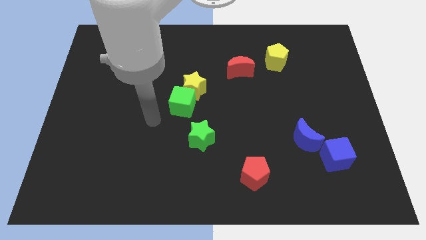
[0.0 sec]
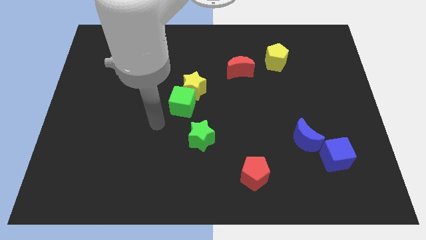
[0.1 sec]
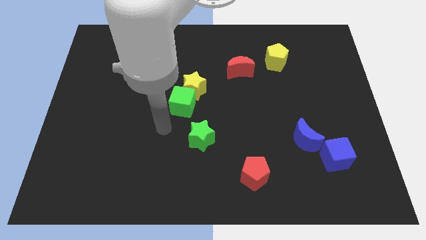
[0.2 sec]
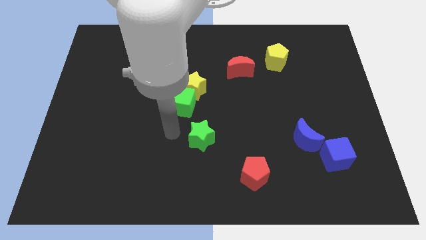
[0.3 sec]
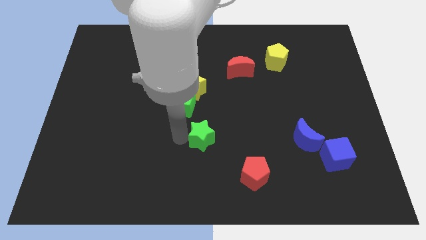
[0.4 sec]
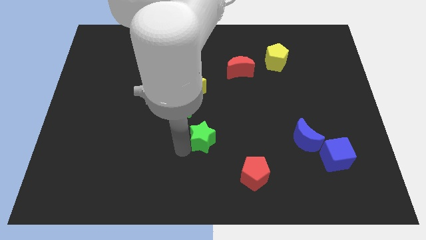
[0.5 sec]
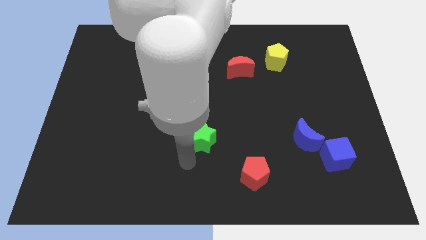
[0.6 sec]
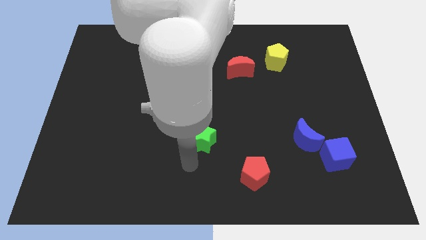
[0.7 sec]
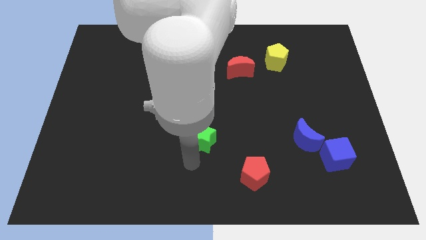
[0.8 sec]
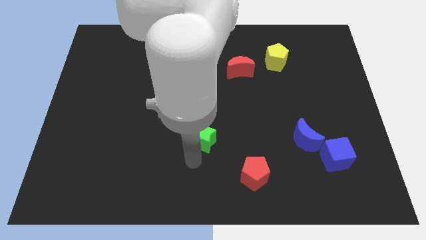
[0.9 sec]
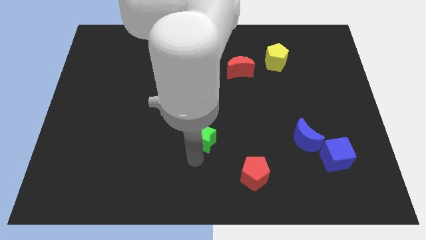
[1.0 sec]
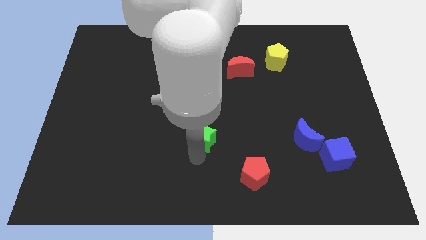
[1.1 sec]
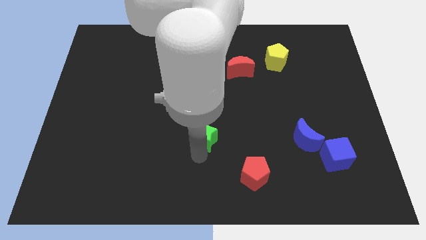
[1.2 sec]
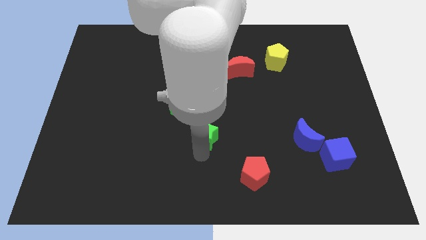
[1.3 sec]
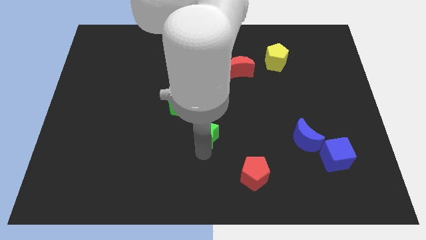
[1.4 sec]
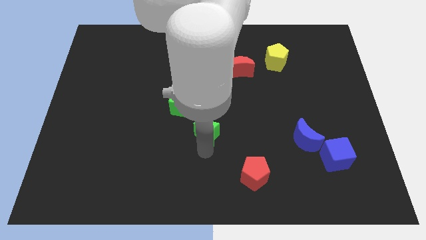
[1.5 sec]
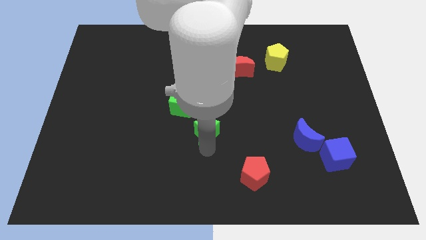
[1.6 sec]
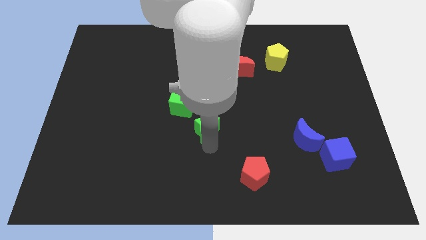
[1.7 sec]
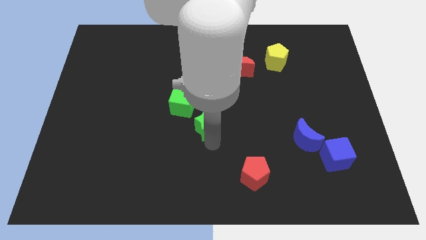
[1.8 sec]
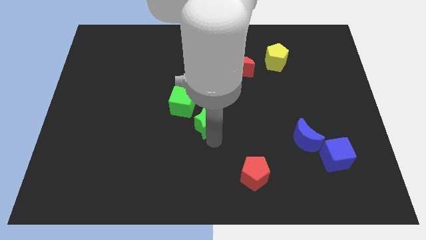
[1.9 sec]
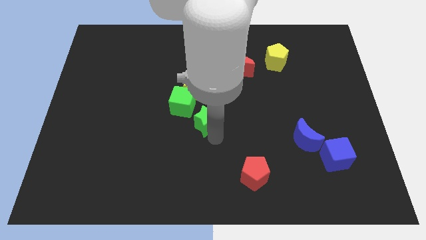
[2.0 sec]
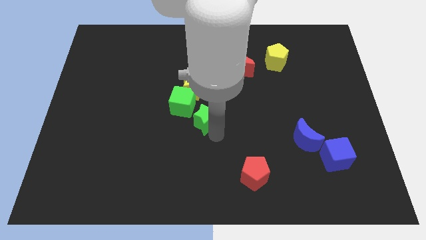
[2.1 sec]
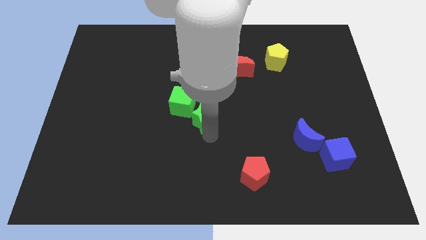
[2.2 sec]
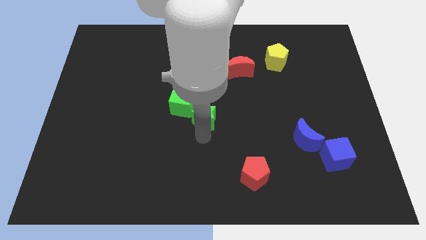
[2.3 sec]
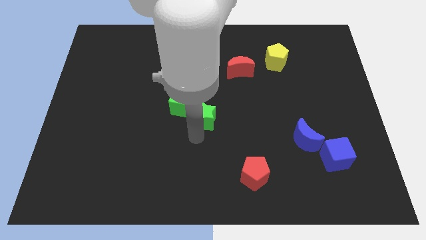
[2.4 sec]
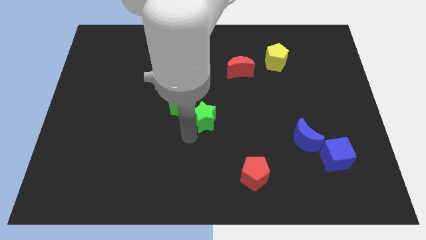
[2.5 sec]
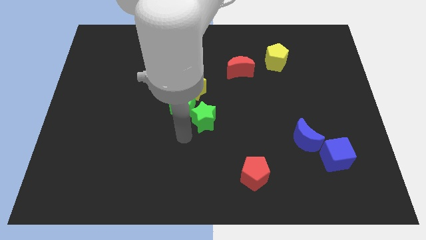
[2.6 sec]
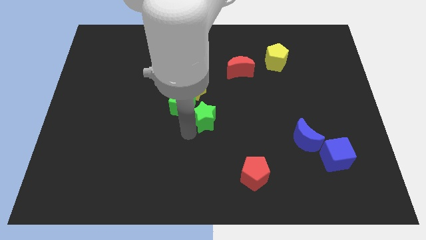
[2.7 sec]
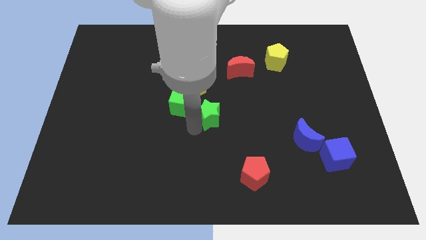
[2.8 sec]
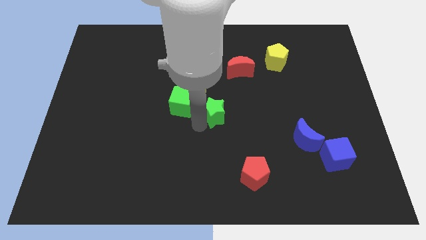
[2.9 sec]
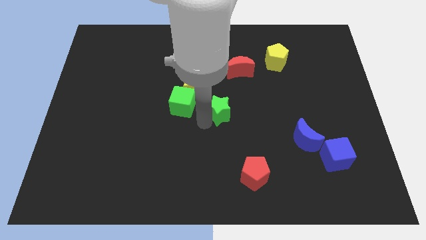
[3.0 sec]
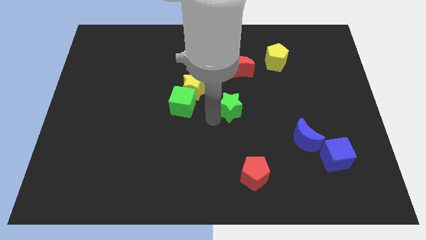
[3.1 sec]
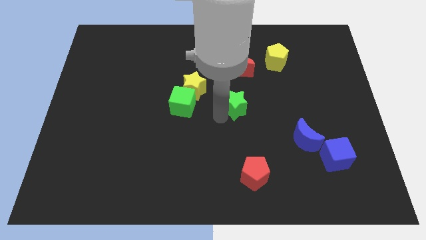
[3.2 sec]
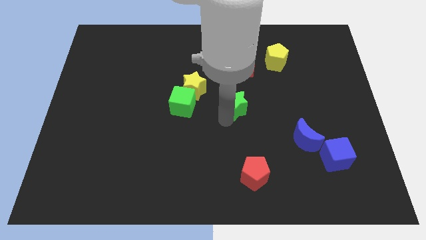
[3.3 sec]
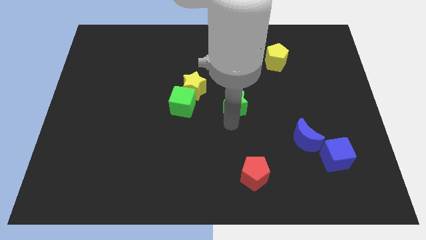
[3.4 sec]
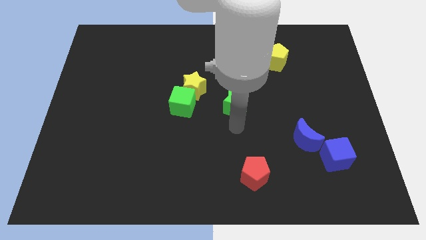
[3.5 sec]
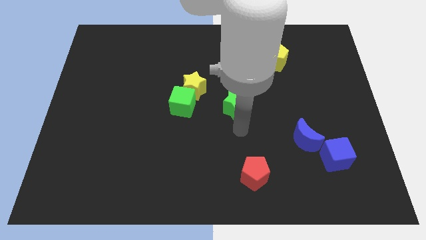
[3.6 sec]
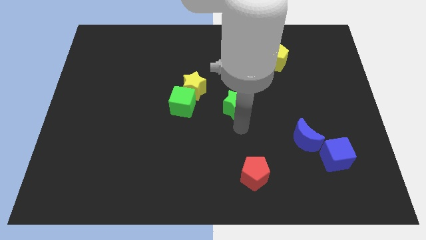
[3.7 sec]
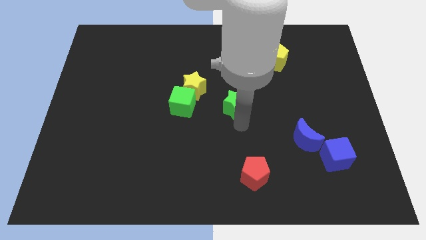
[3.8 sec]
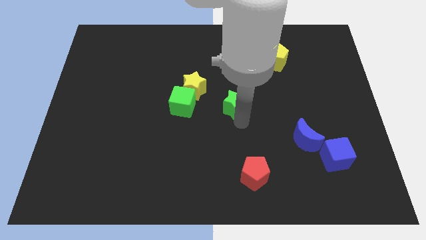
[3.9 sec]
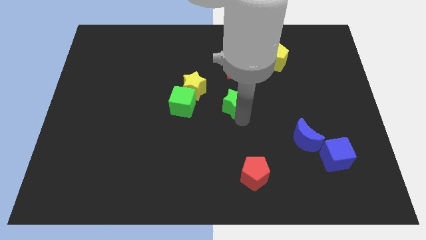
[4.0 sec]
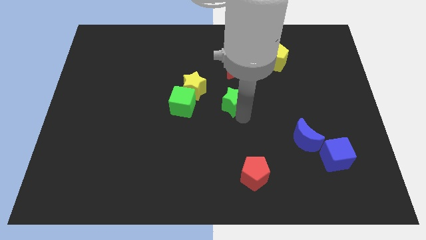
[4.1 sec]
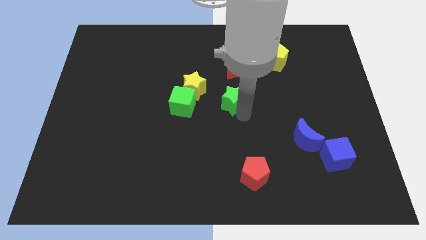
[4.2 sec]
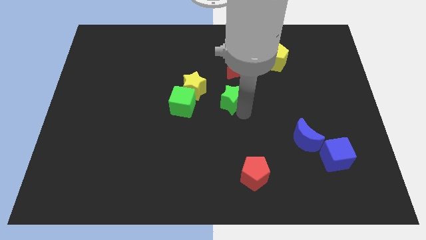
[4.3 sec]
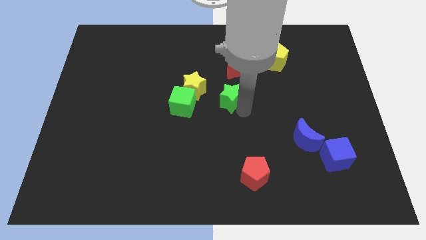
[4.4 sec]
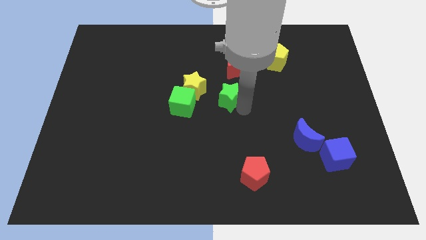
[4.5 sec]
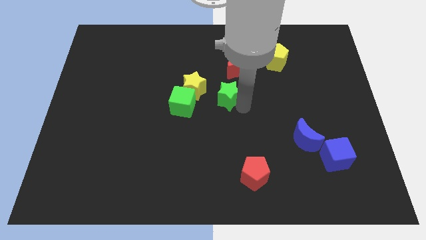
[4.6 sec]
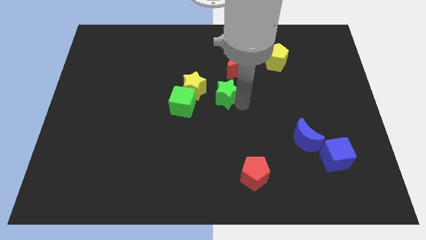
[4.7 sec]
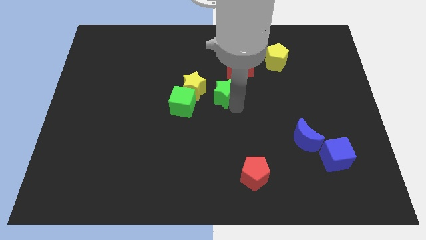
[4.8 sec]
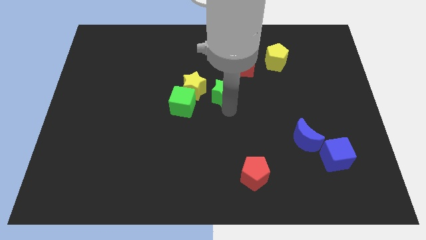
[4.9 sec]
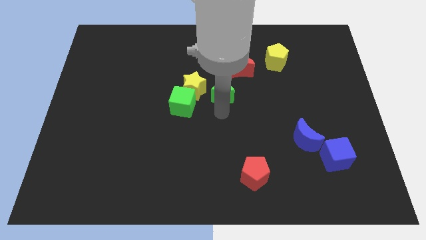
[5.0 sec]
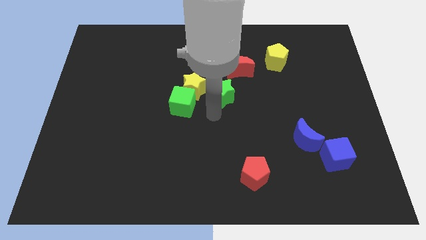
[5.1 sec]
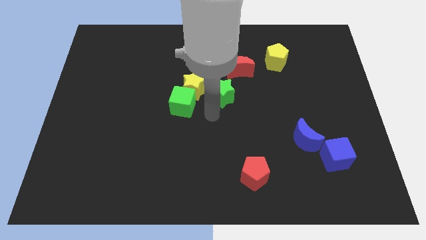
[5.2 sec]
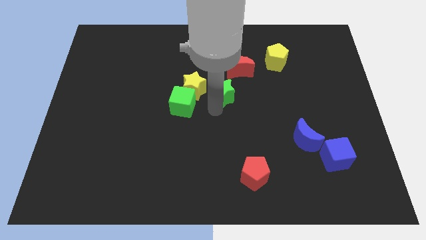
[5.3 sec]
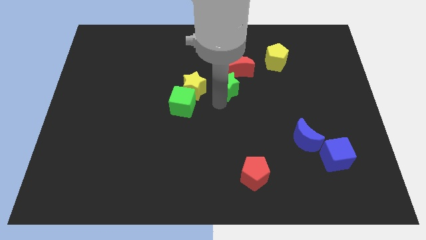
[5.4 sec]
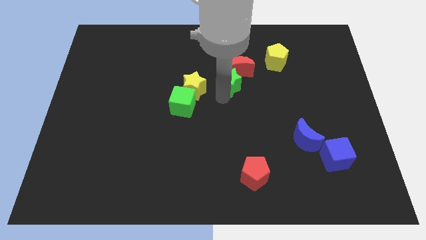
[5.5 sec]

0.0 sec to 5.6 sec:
push the green star close to the red moon

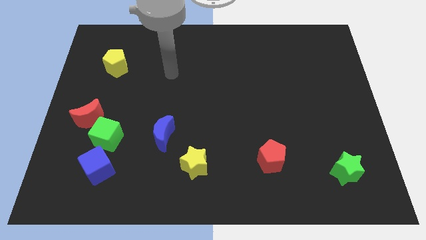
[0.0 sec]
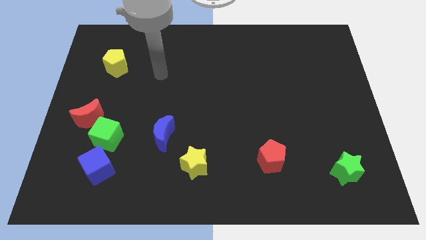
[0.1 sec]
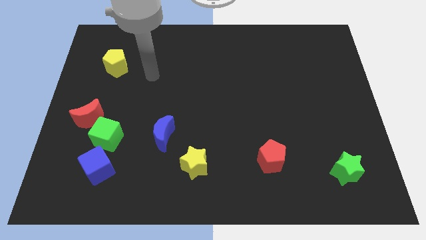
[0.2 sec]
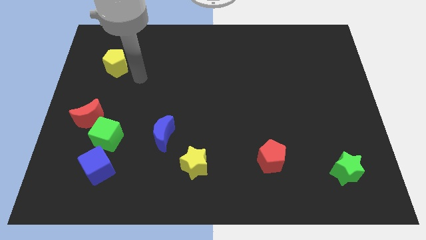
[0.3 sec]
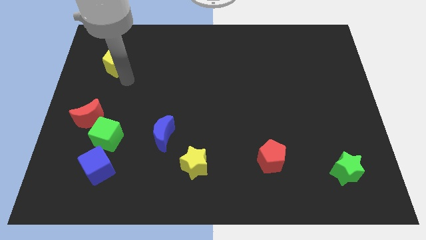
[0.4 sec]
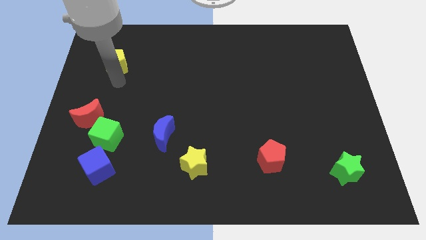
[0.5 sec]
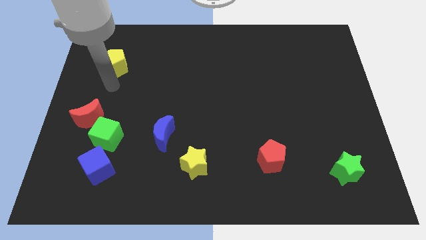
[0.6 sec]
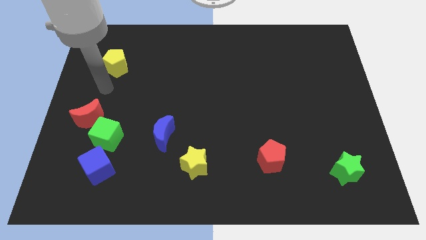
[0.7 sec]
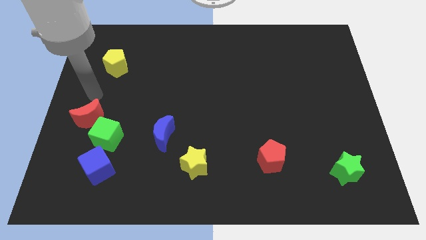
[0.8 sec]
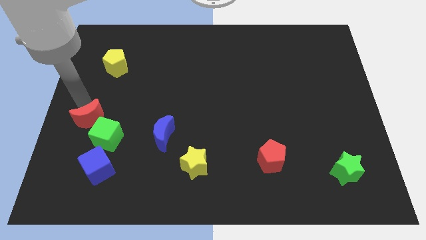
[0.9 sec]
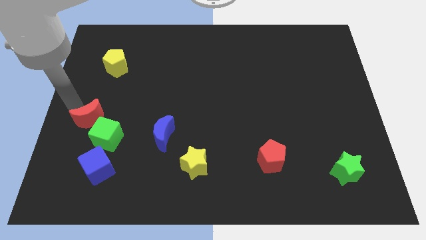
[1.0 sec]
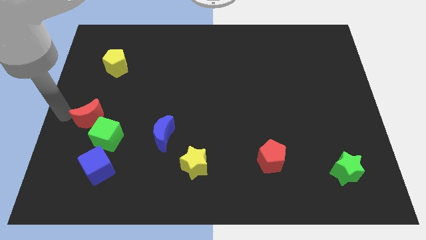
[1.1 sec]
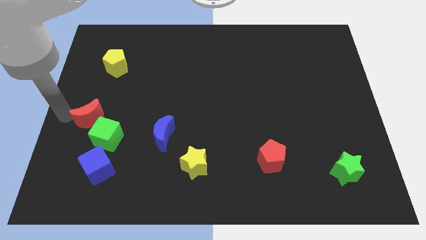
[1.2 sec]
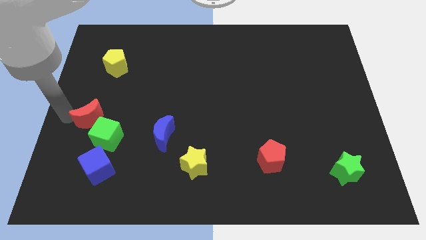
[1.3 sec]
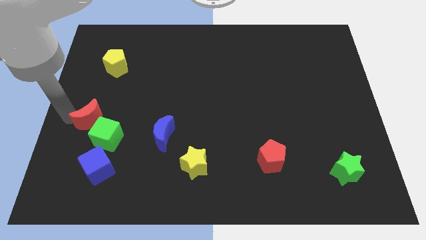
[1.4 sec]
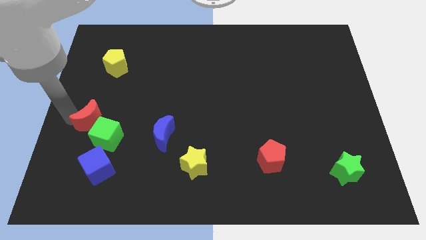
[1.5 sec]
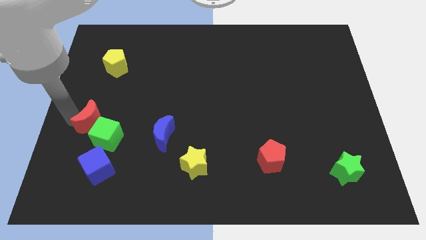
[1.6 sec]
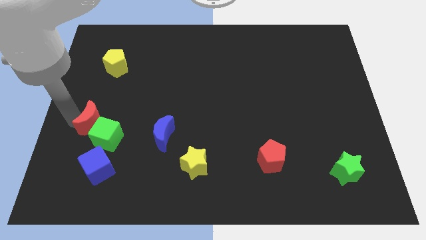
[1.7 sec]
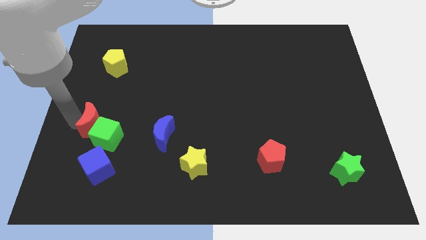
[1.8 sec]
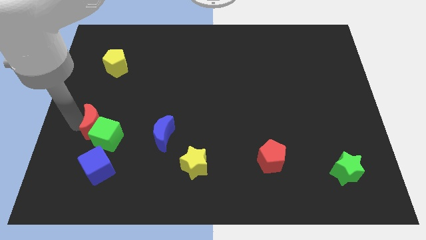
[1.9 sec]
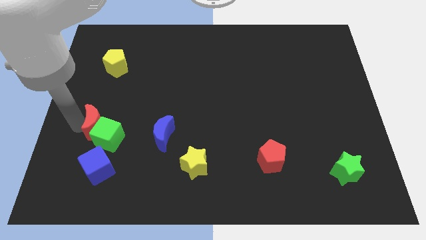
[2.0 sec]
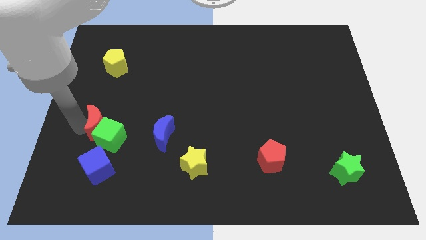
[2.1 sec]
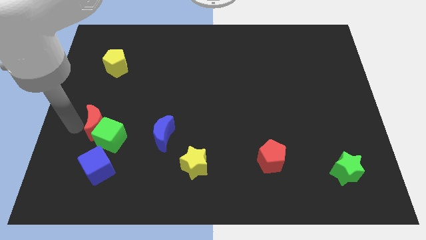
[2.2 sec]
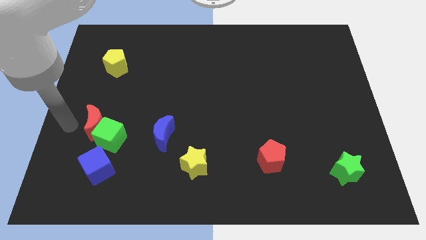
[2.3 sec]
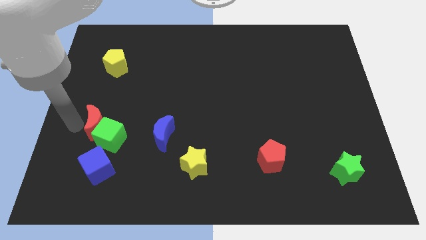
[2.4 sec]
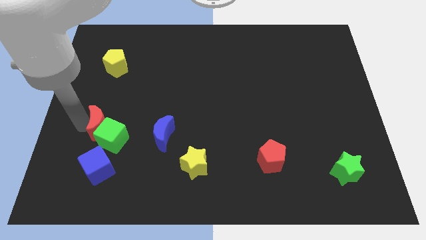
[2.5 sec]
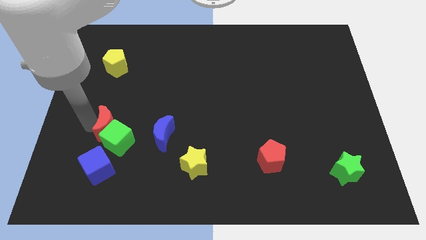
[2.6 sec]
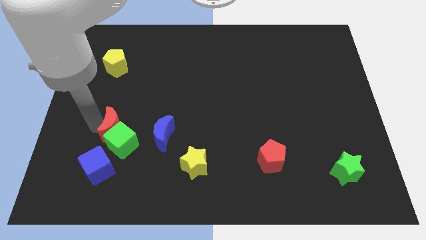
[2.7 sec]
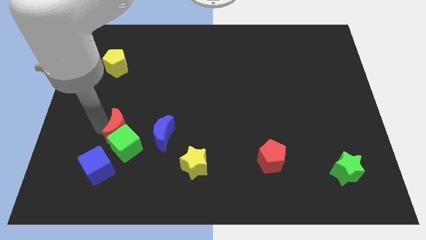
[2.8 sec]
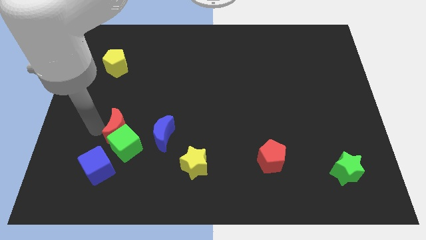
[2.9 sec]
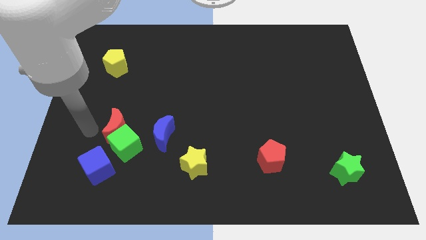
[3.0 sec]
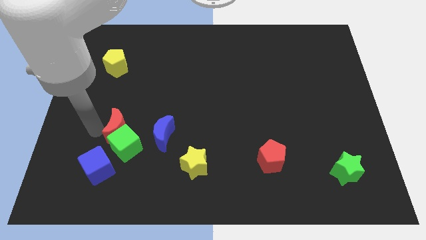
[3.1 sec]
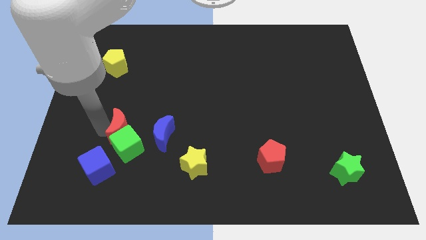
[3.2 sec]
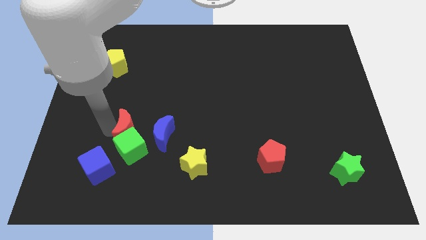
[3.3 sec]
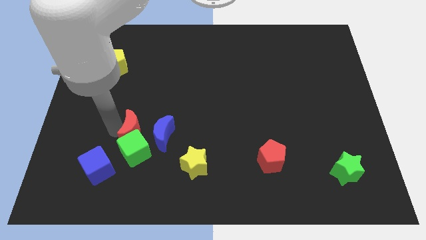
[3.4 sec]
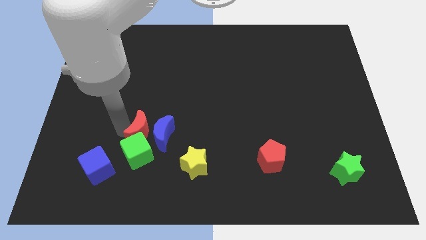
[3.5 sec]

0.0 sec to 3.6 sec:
move the red moon close to the blue moon
